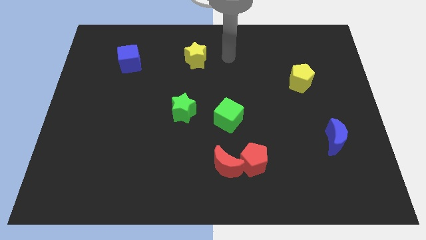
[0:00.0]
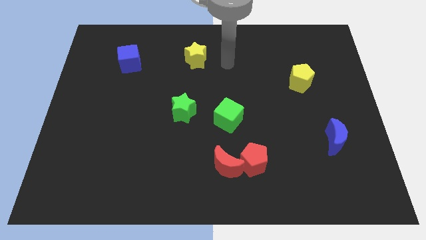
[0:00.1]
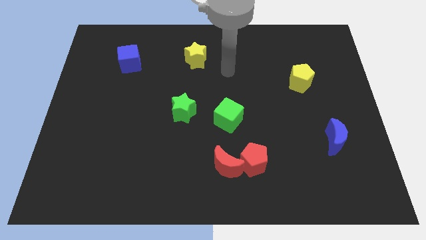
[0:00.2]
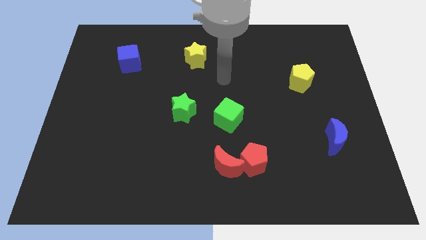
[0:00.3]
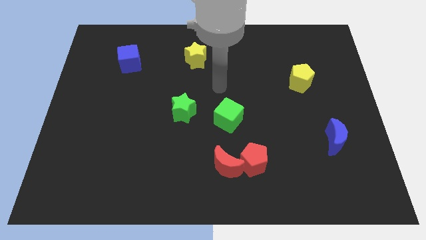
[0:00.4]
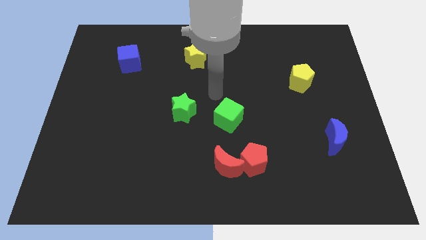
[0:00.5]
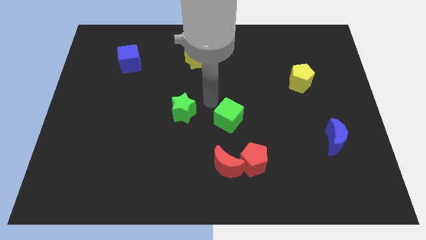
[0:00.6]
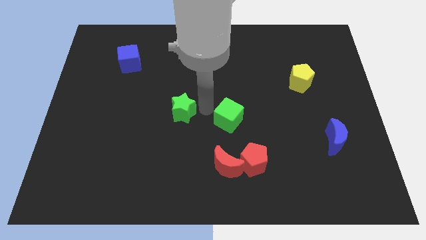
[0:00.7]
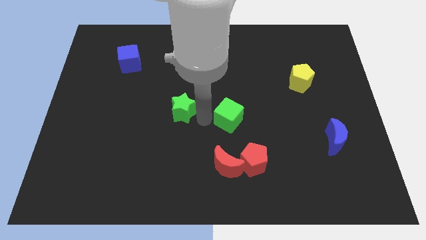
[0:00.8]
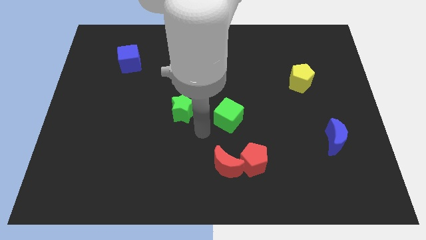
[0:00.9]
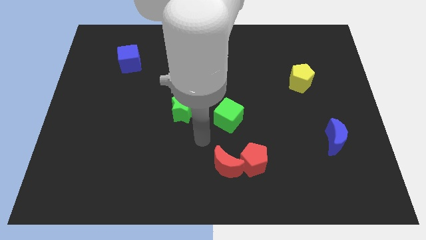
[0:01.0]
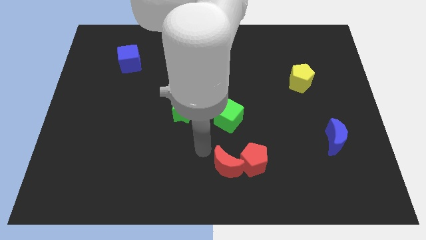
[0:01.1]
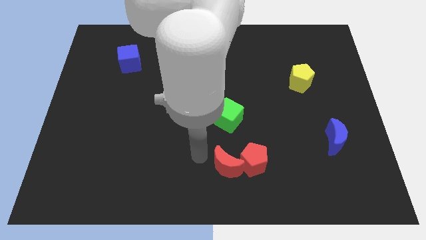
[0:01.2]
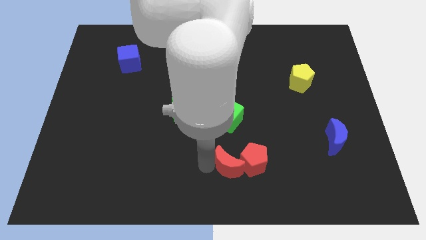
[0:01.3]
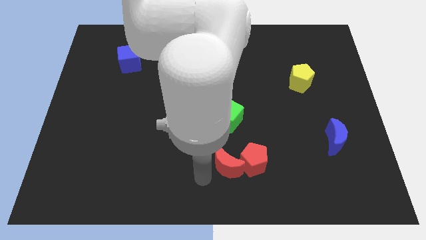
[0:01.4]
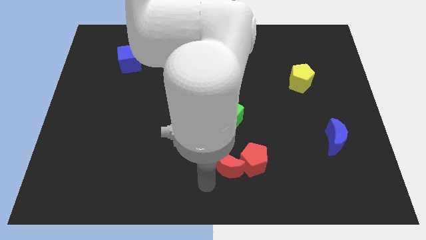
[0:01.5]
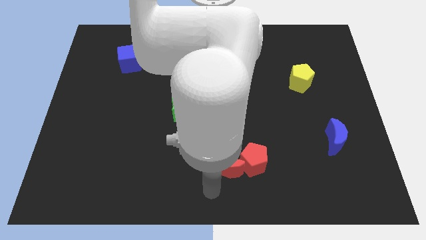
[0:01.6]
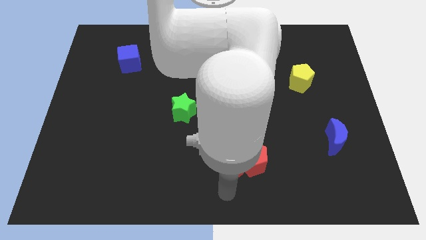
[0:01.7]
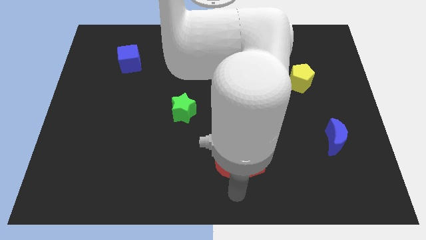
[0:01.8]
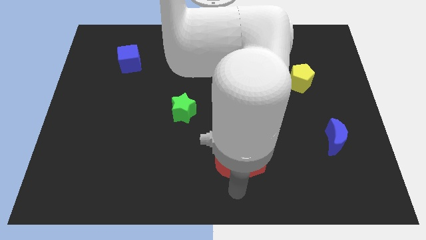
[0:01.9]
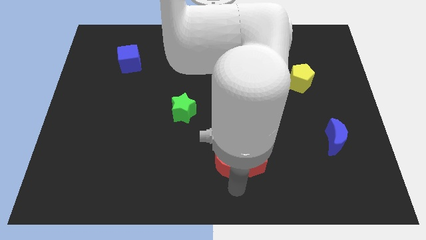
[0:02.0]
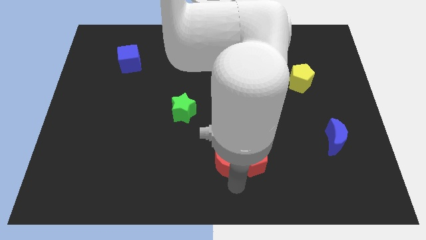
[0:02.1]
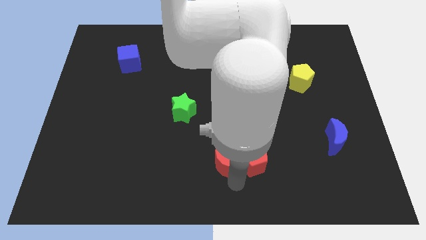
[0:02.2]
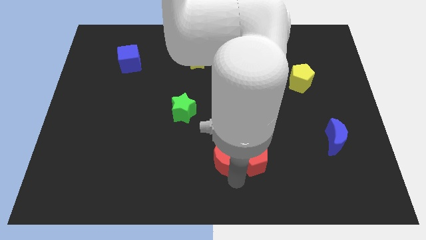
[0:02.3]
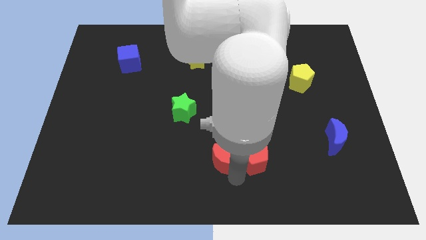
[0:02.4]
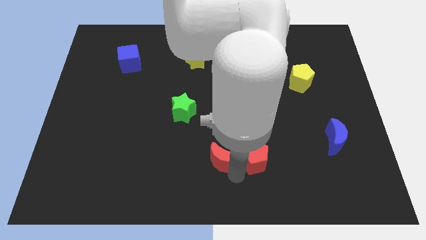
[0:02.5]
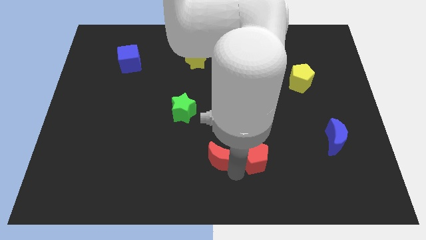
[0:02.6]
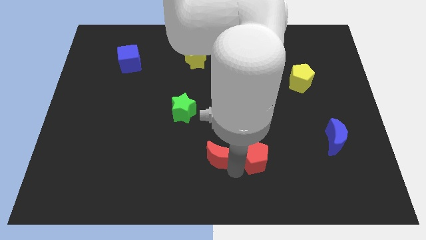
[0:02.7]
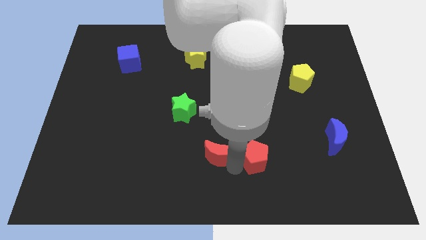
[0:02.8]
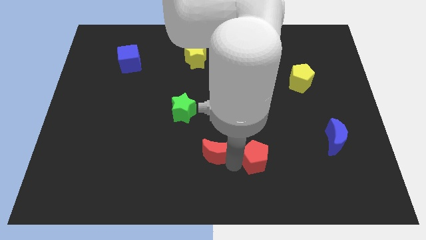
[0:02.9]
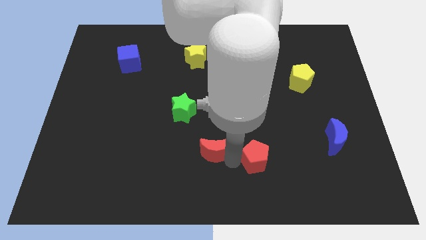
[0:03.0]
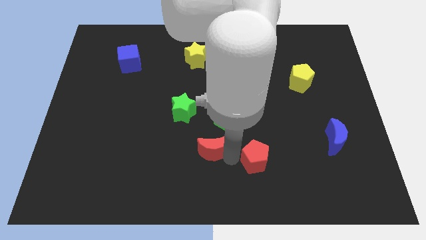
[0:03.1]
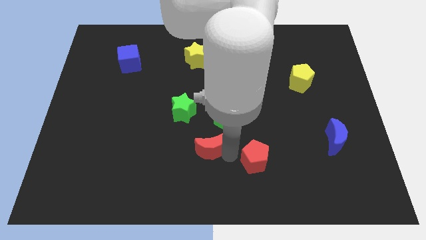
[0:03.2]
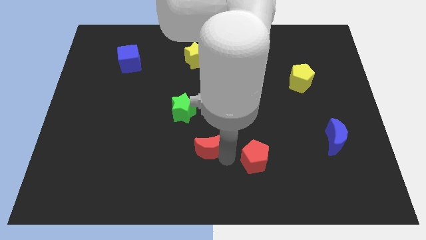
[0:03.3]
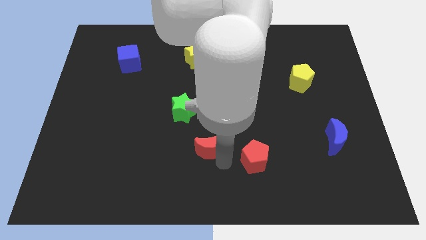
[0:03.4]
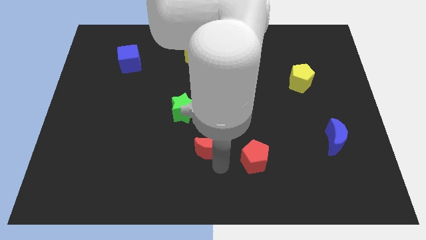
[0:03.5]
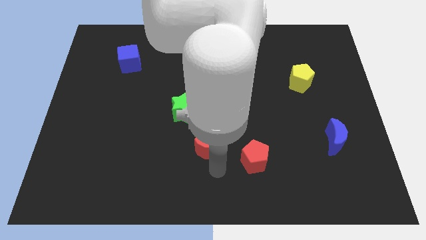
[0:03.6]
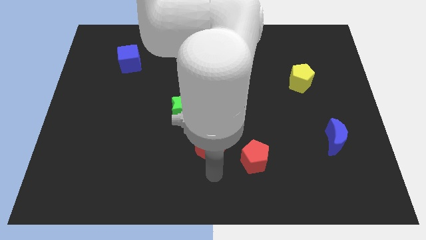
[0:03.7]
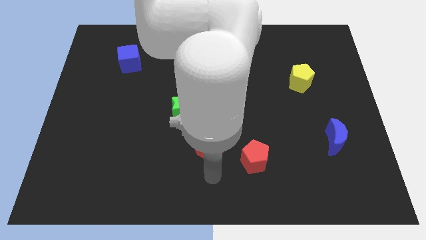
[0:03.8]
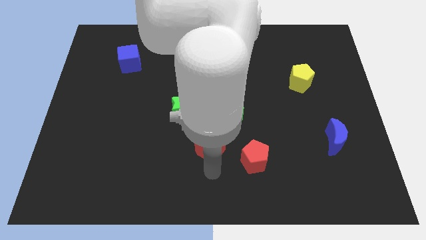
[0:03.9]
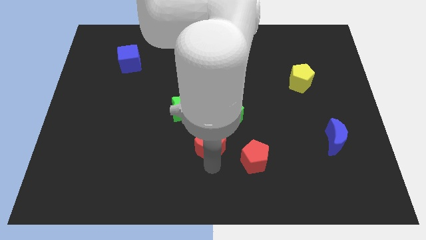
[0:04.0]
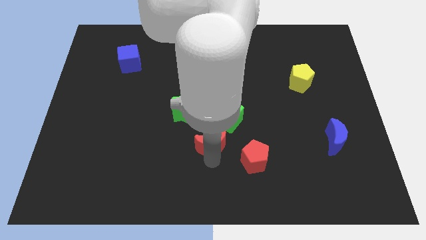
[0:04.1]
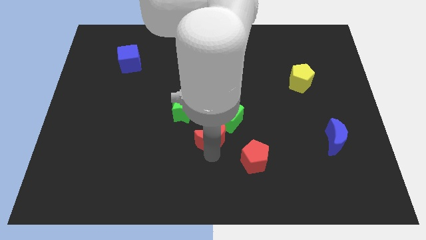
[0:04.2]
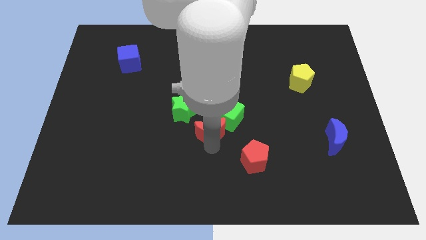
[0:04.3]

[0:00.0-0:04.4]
slightly move the red moon up

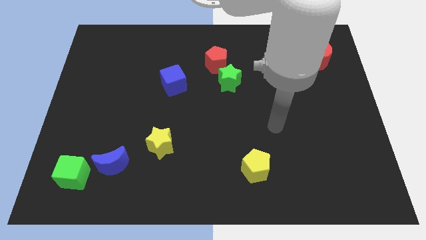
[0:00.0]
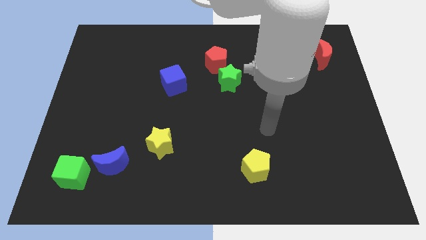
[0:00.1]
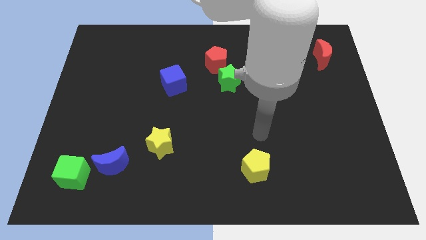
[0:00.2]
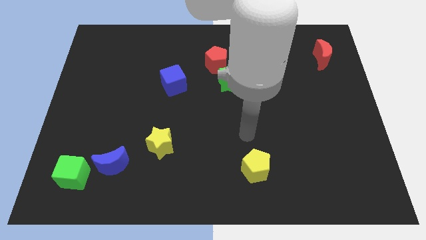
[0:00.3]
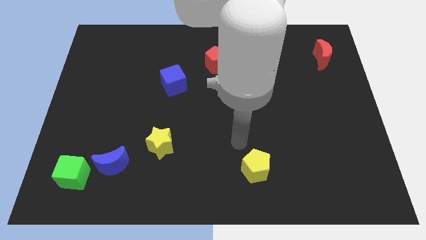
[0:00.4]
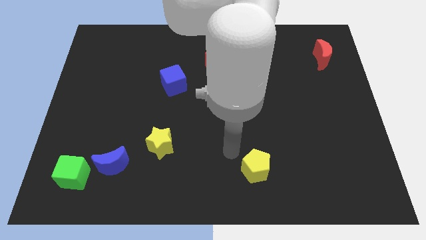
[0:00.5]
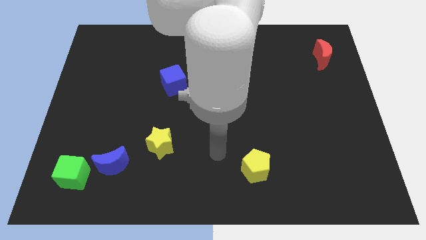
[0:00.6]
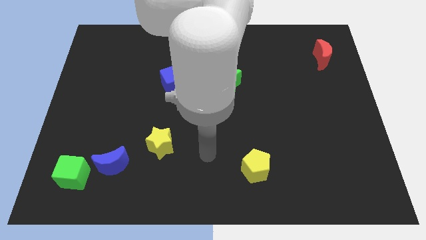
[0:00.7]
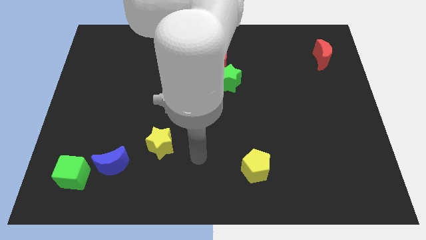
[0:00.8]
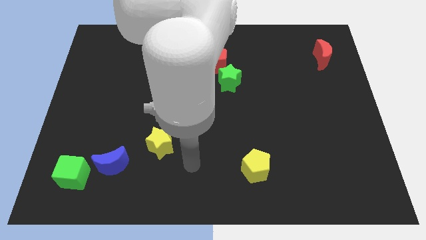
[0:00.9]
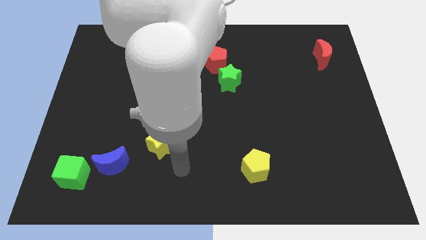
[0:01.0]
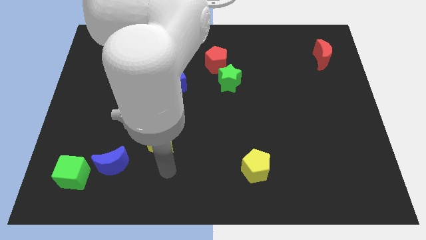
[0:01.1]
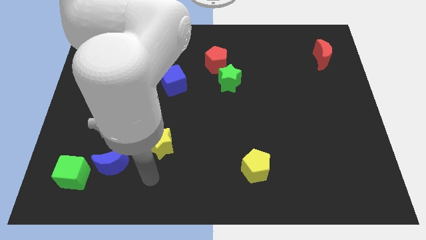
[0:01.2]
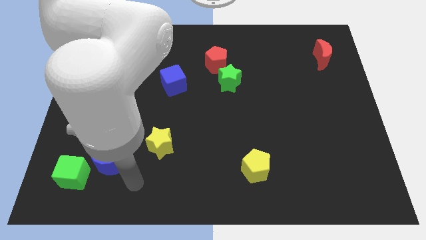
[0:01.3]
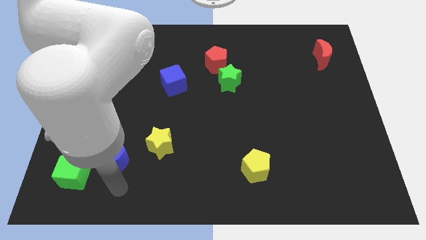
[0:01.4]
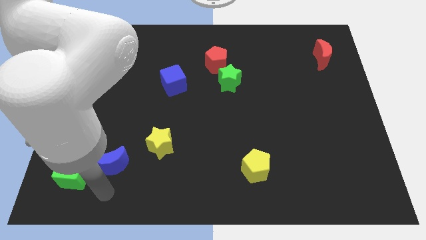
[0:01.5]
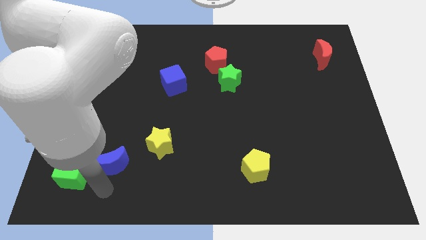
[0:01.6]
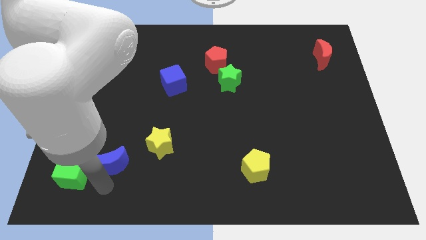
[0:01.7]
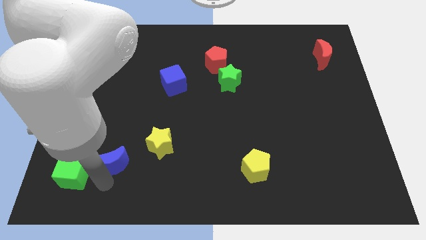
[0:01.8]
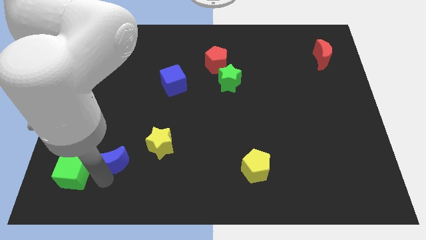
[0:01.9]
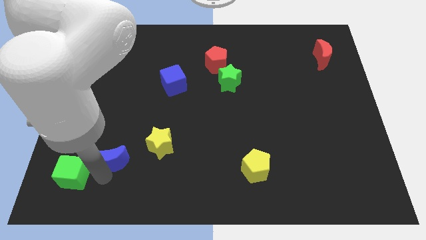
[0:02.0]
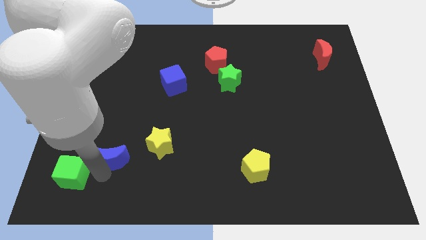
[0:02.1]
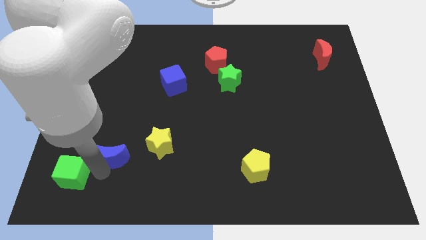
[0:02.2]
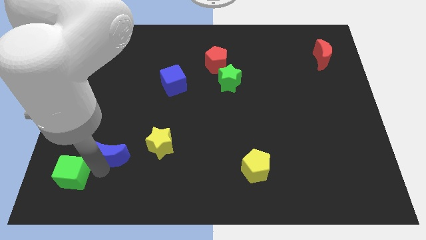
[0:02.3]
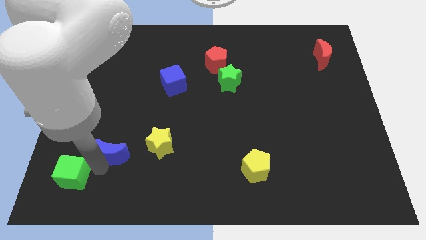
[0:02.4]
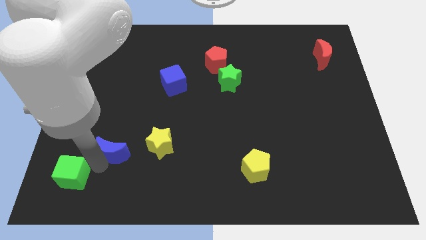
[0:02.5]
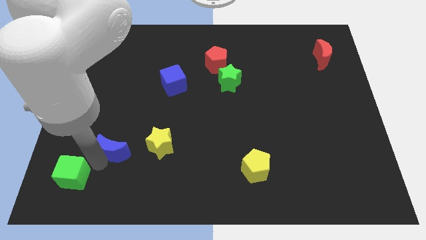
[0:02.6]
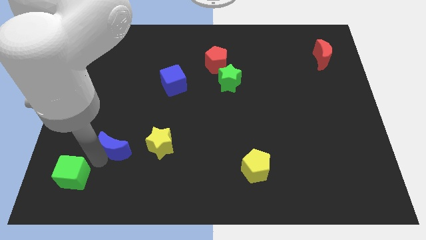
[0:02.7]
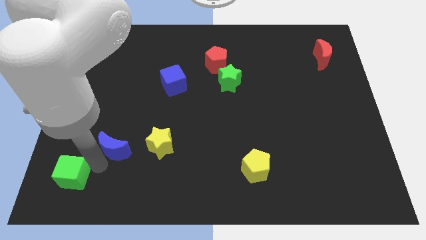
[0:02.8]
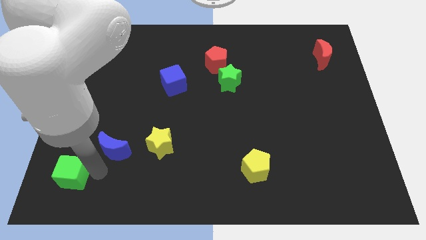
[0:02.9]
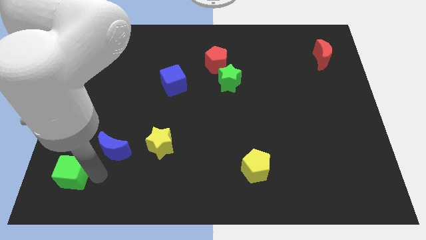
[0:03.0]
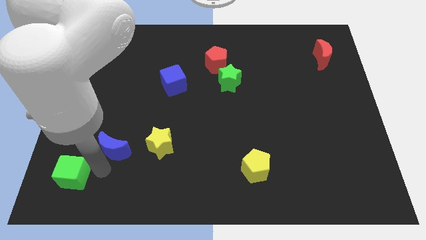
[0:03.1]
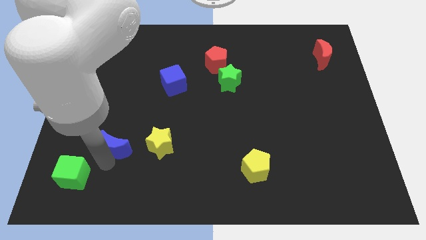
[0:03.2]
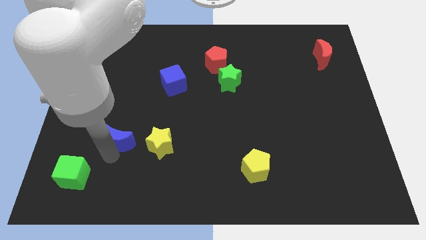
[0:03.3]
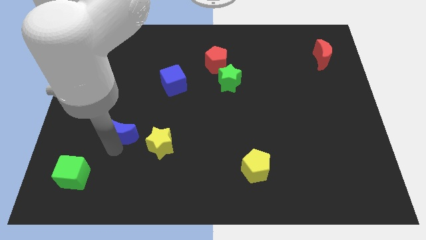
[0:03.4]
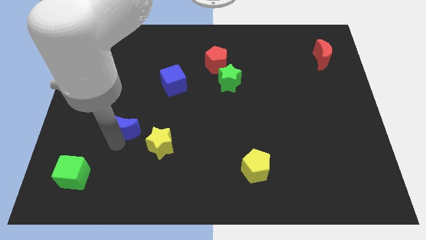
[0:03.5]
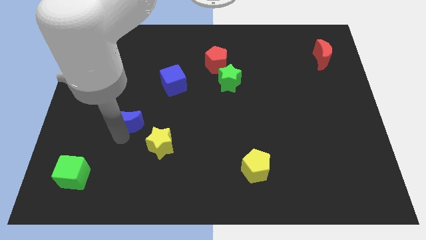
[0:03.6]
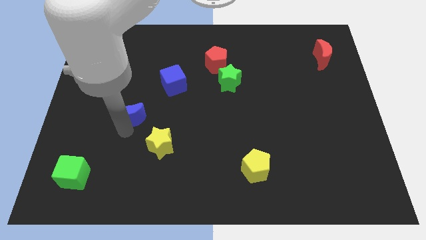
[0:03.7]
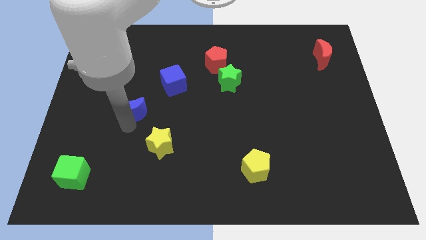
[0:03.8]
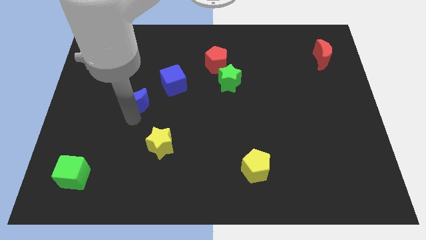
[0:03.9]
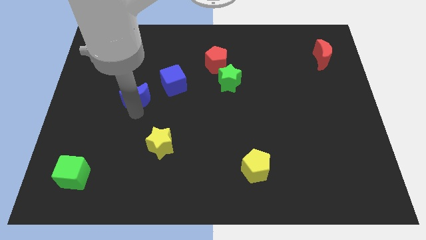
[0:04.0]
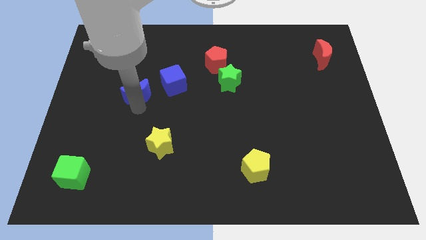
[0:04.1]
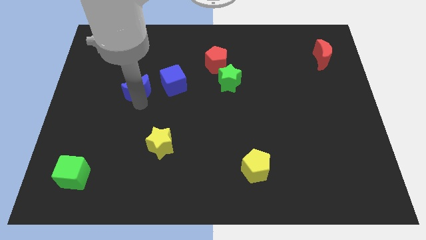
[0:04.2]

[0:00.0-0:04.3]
move the blue moon upwards
